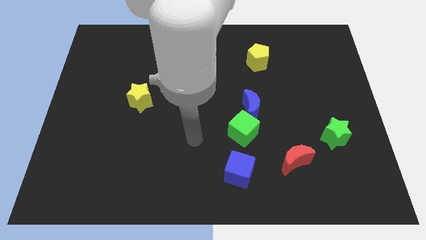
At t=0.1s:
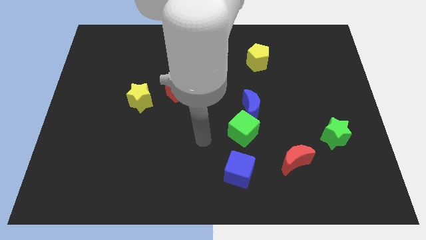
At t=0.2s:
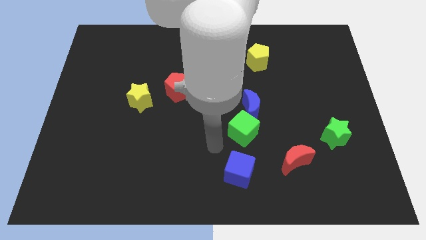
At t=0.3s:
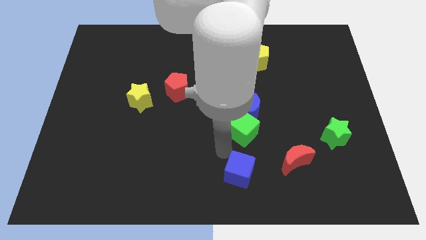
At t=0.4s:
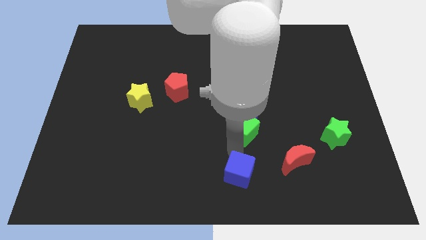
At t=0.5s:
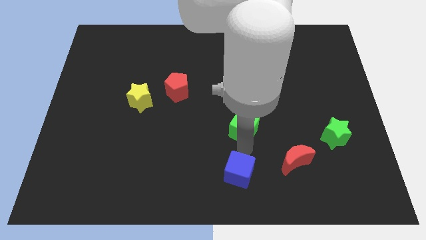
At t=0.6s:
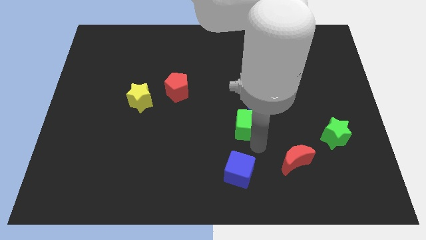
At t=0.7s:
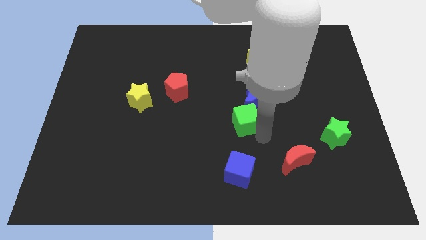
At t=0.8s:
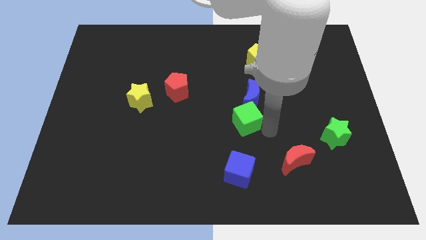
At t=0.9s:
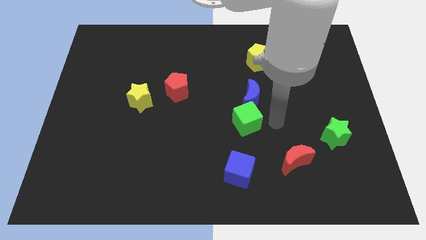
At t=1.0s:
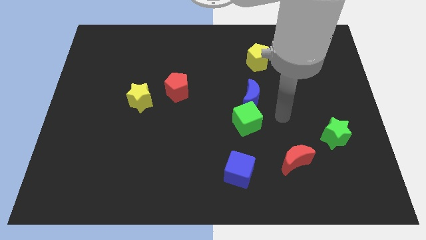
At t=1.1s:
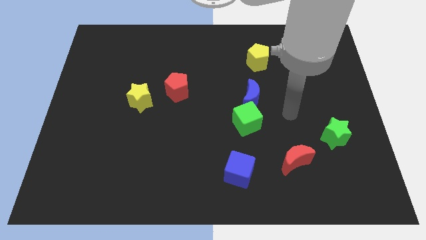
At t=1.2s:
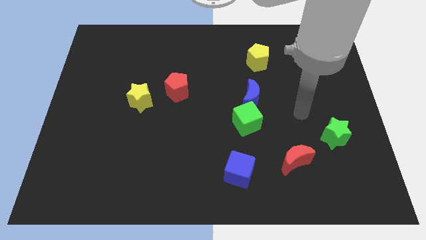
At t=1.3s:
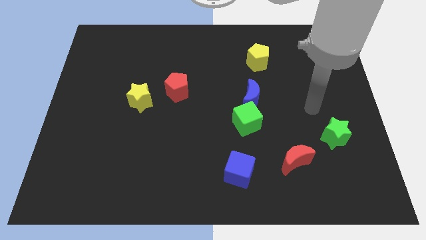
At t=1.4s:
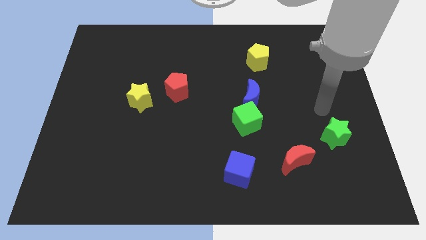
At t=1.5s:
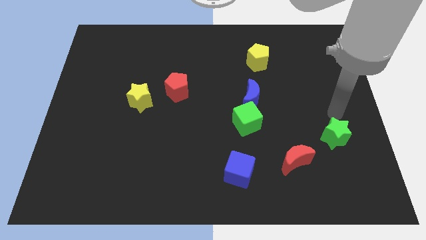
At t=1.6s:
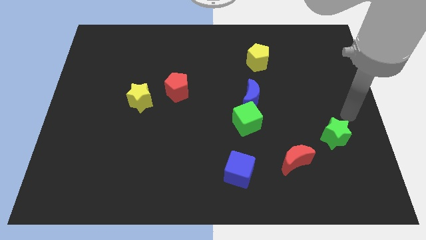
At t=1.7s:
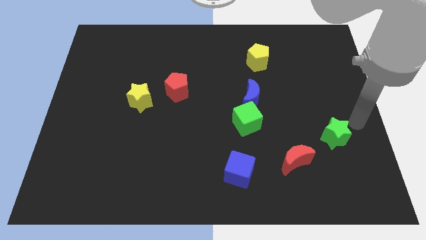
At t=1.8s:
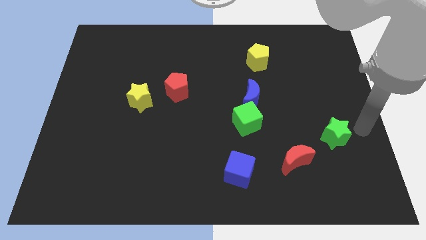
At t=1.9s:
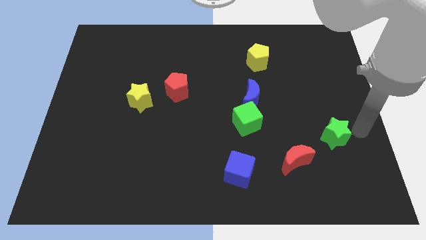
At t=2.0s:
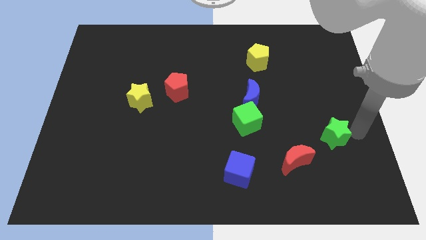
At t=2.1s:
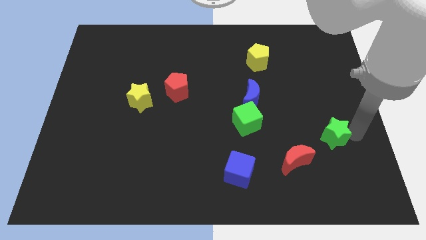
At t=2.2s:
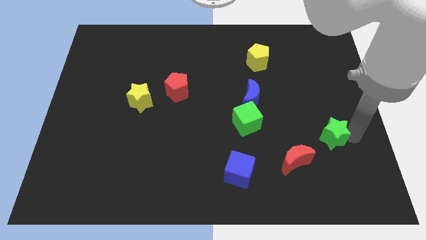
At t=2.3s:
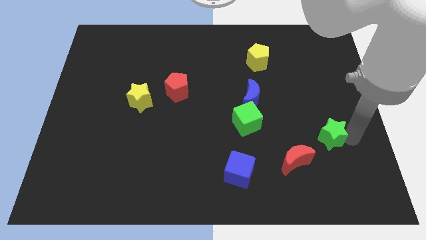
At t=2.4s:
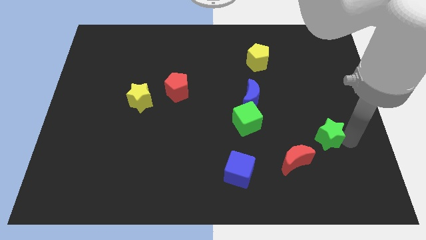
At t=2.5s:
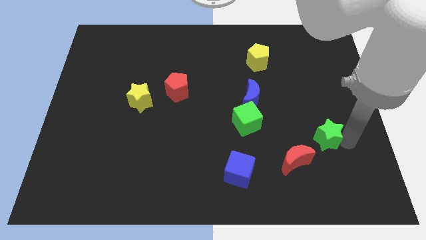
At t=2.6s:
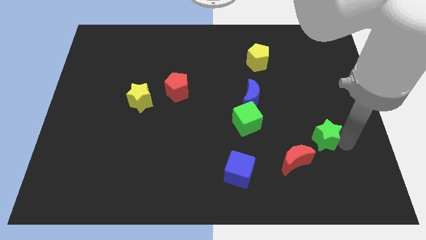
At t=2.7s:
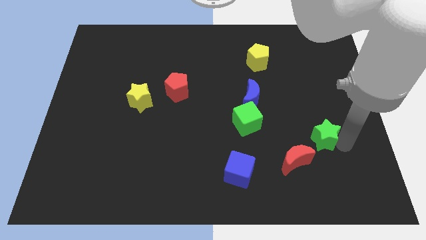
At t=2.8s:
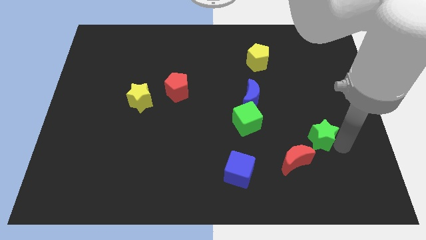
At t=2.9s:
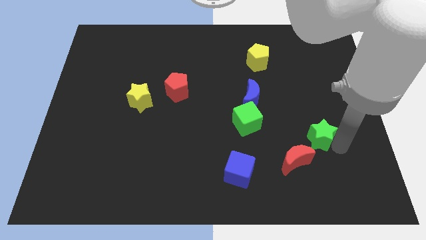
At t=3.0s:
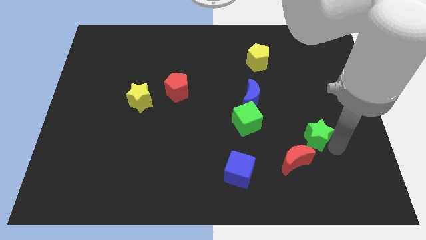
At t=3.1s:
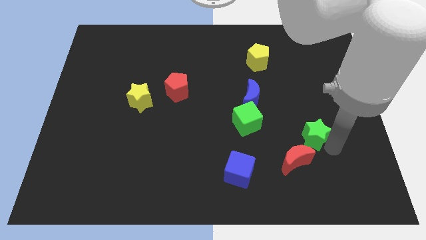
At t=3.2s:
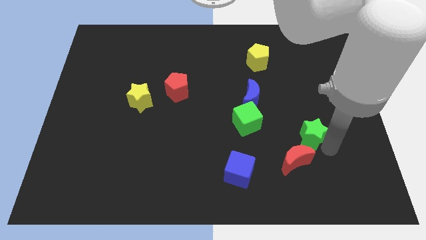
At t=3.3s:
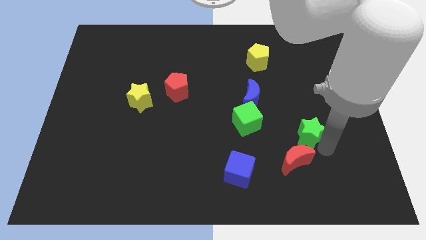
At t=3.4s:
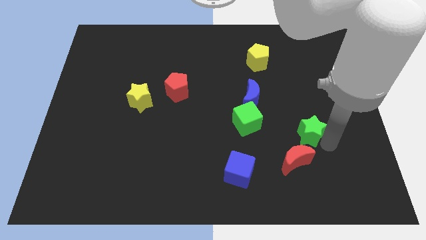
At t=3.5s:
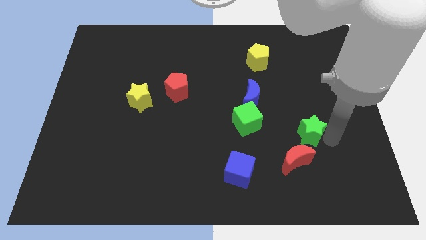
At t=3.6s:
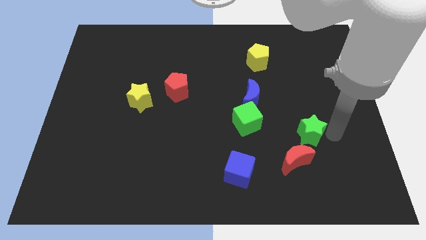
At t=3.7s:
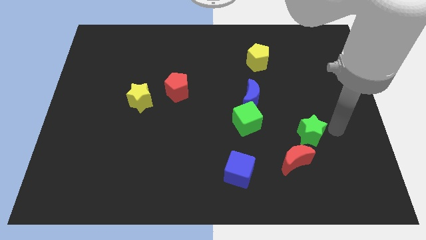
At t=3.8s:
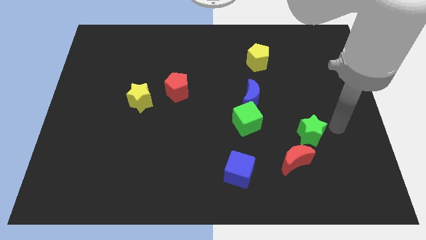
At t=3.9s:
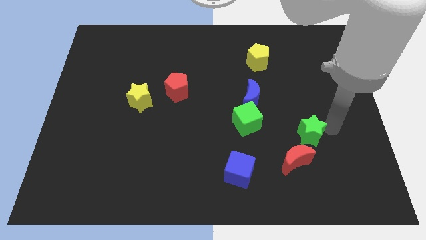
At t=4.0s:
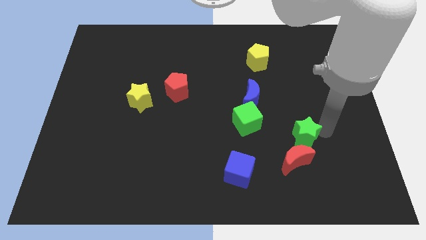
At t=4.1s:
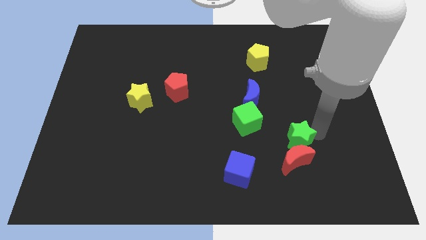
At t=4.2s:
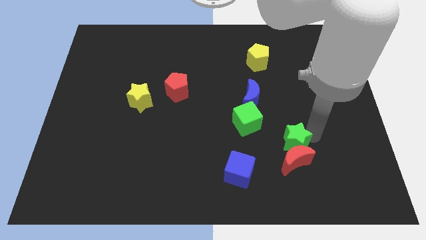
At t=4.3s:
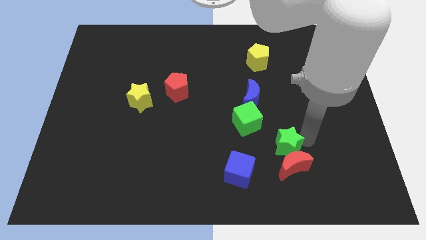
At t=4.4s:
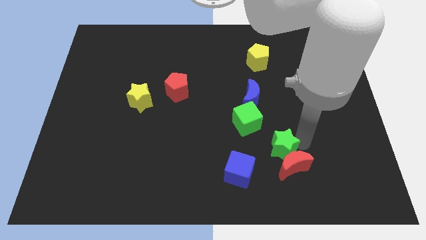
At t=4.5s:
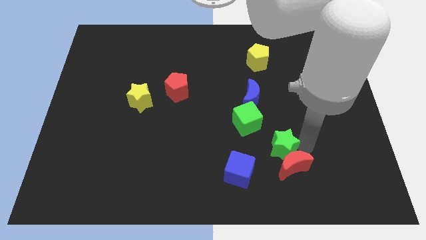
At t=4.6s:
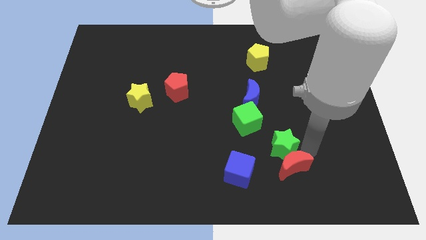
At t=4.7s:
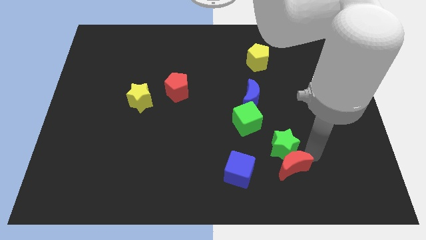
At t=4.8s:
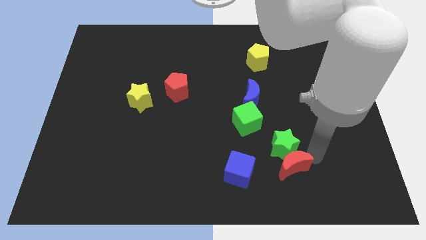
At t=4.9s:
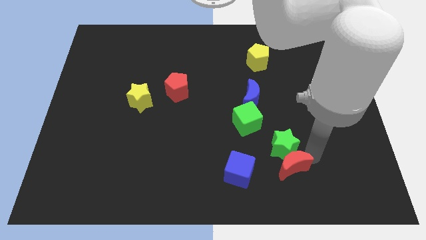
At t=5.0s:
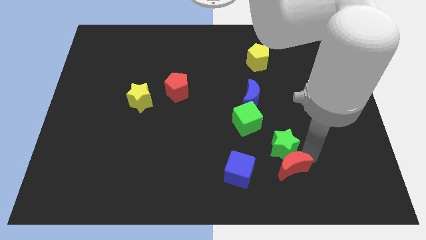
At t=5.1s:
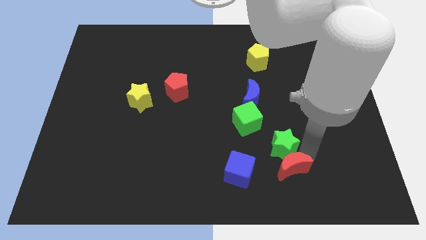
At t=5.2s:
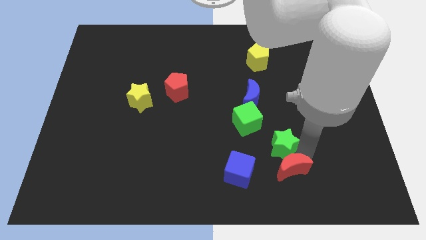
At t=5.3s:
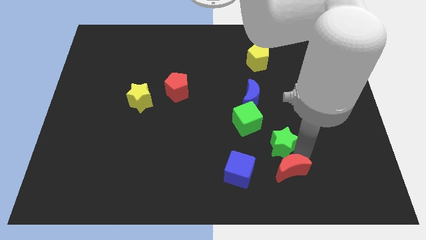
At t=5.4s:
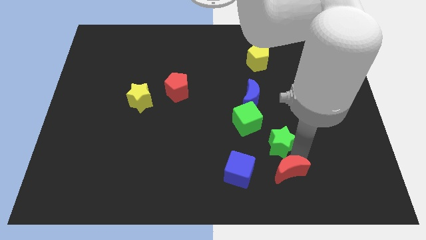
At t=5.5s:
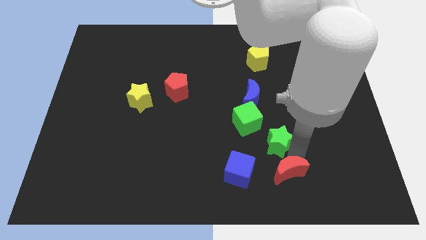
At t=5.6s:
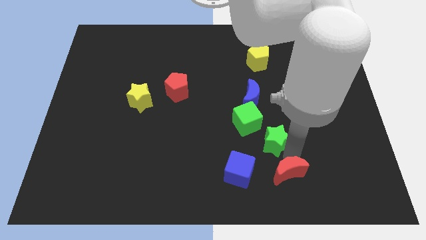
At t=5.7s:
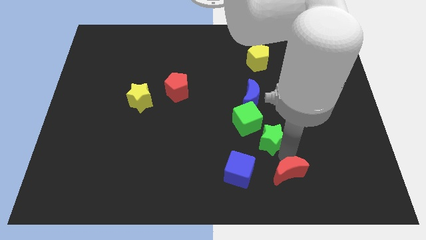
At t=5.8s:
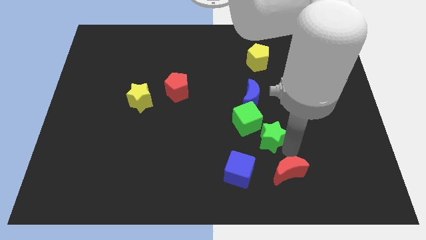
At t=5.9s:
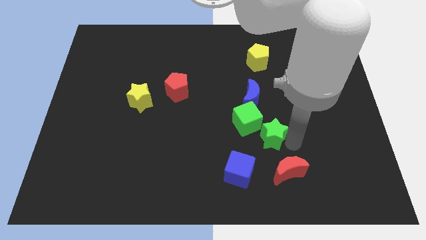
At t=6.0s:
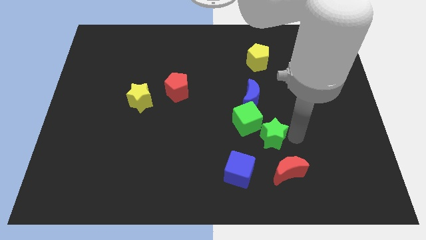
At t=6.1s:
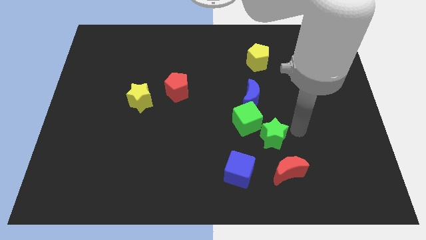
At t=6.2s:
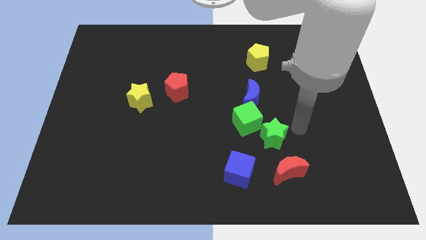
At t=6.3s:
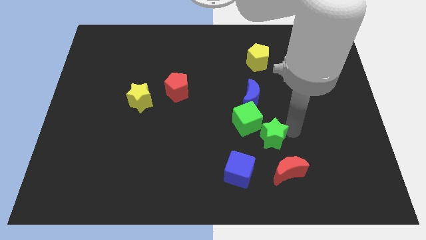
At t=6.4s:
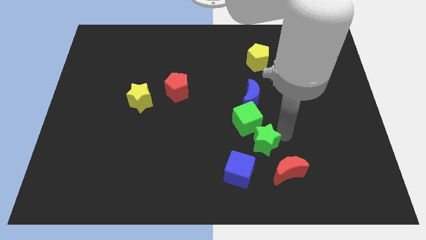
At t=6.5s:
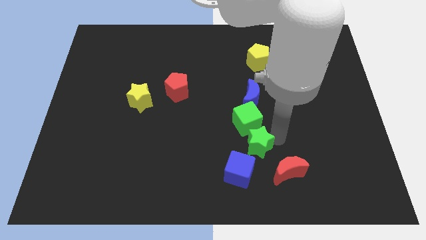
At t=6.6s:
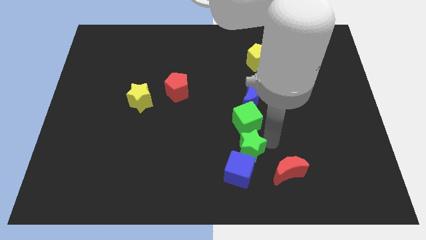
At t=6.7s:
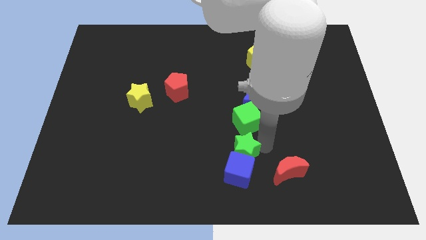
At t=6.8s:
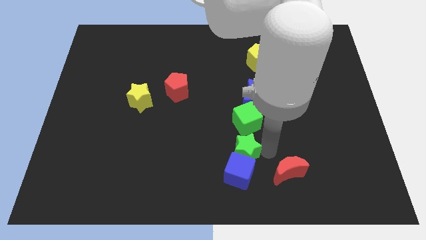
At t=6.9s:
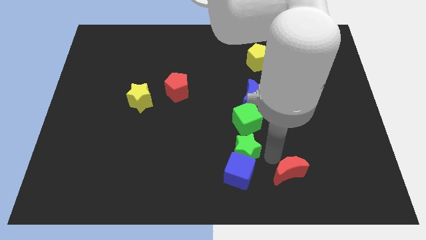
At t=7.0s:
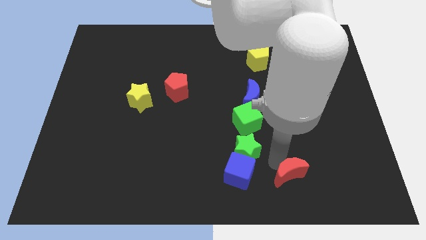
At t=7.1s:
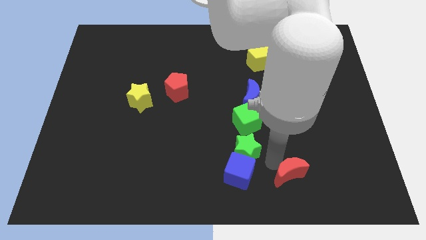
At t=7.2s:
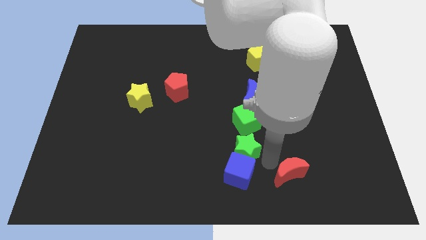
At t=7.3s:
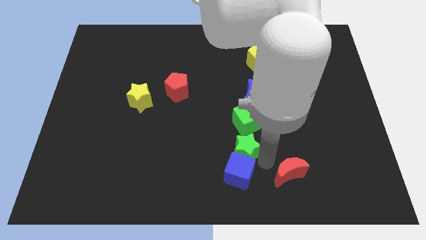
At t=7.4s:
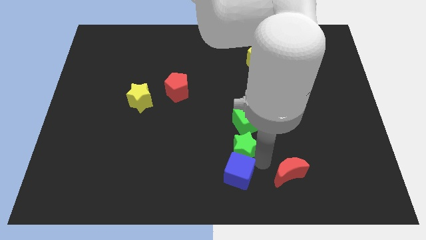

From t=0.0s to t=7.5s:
push the green star to the left

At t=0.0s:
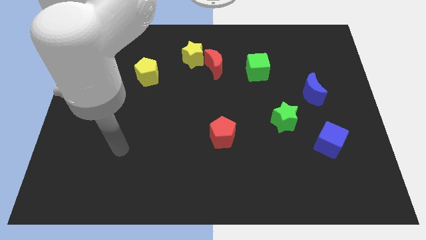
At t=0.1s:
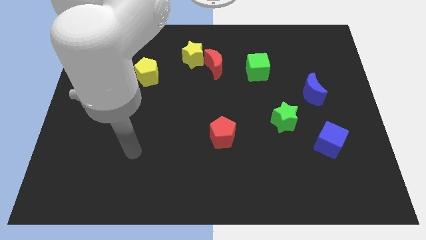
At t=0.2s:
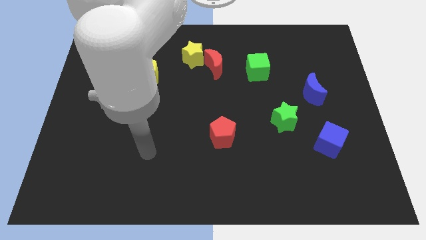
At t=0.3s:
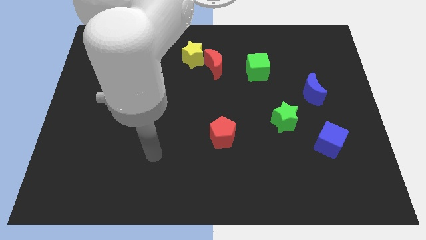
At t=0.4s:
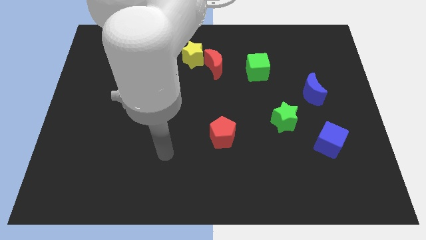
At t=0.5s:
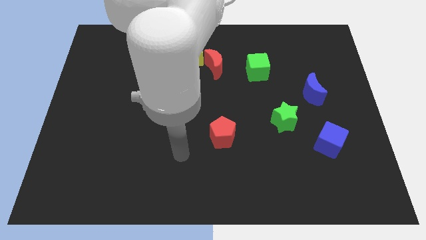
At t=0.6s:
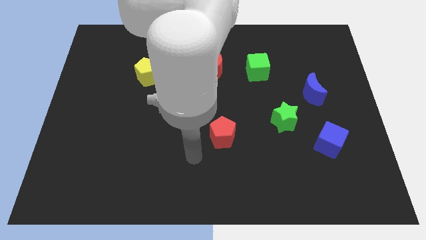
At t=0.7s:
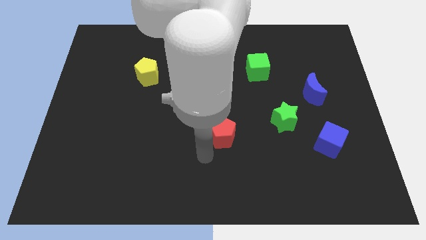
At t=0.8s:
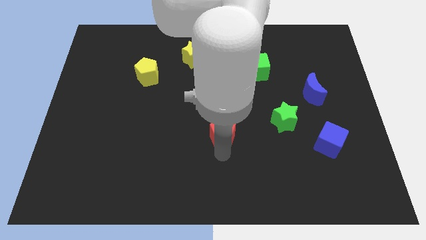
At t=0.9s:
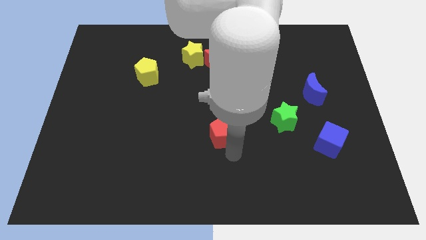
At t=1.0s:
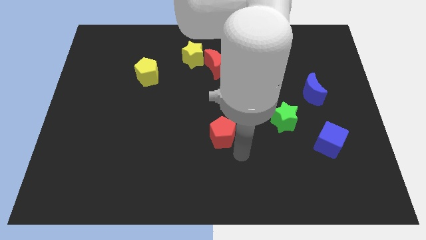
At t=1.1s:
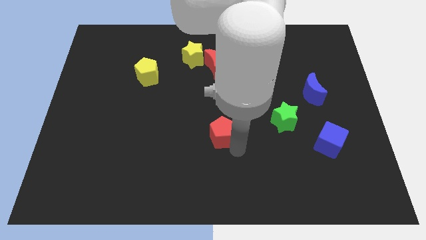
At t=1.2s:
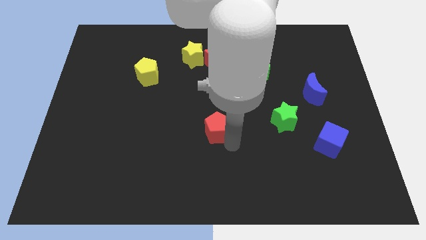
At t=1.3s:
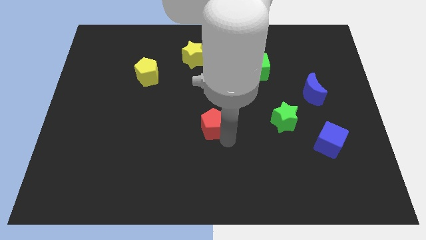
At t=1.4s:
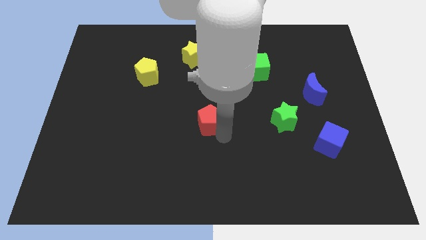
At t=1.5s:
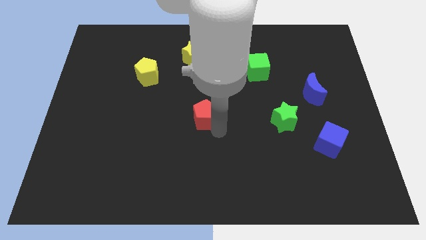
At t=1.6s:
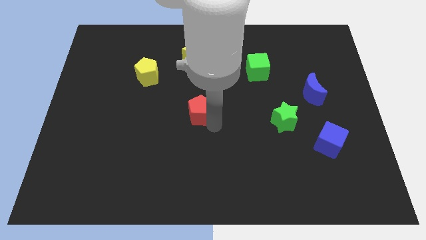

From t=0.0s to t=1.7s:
slightly move the red pentagon up and left
